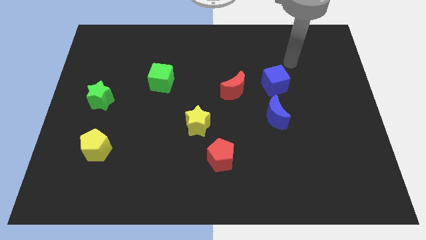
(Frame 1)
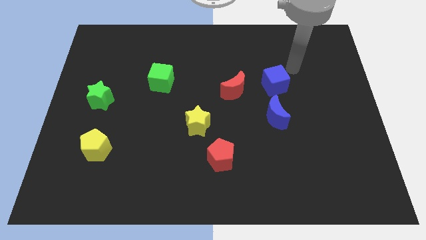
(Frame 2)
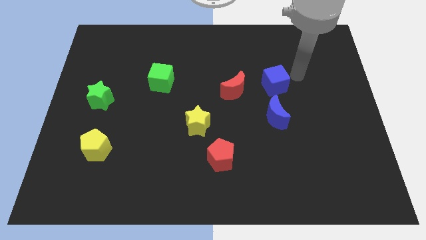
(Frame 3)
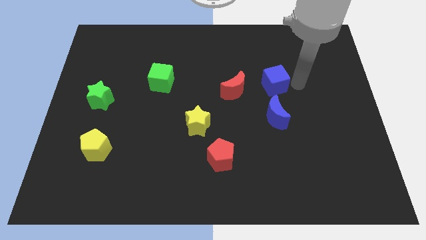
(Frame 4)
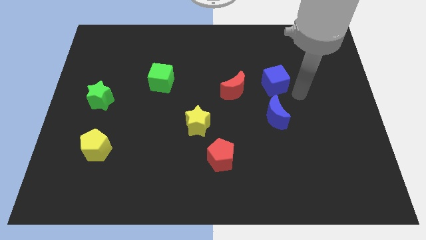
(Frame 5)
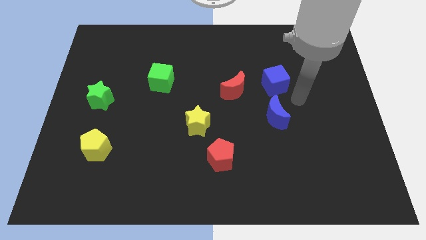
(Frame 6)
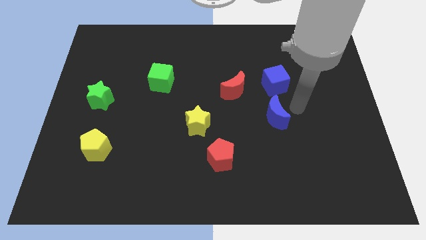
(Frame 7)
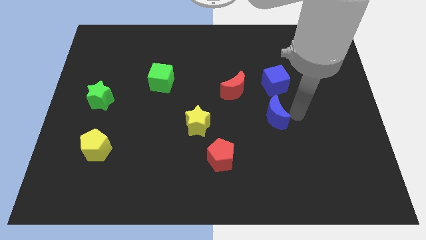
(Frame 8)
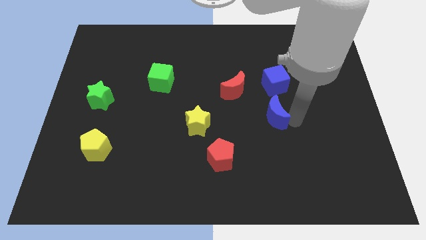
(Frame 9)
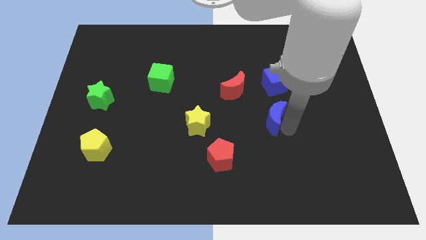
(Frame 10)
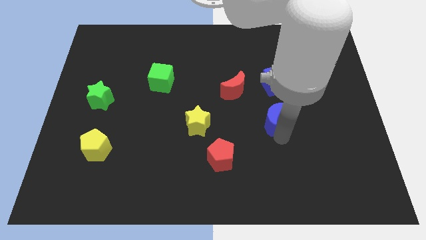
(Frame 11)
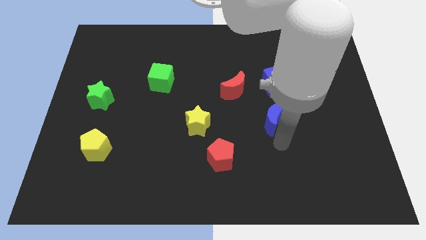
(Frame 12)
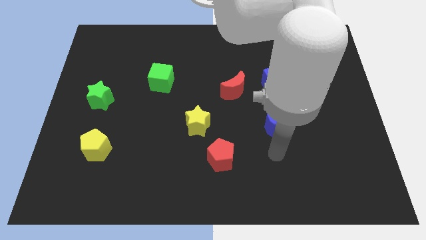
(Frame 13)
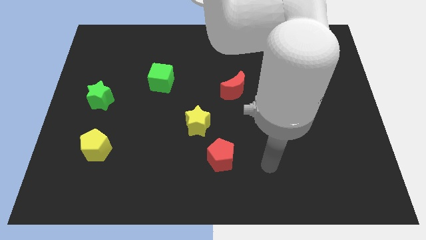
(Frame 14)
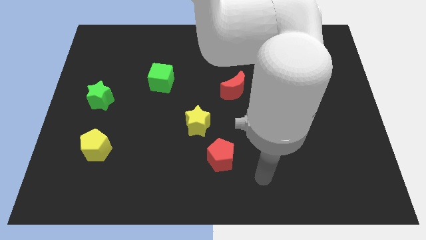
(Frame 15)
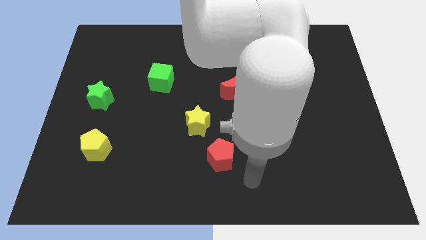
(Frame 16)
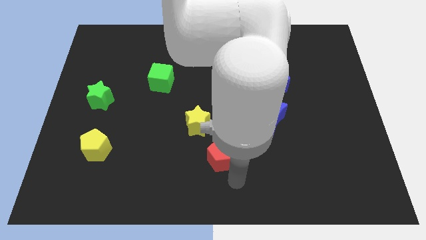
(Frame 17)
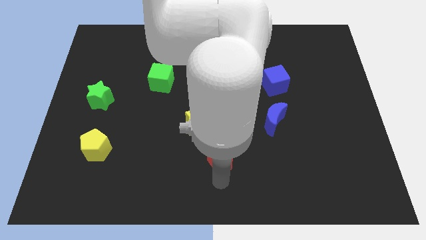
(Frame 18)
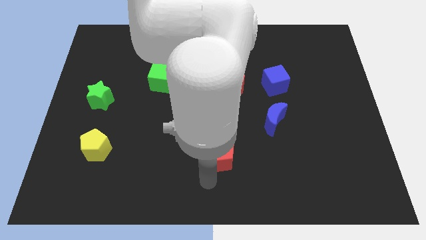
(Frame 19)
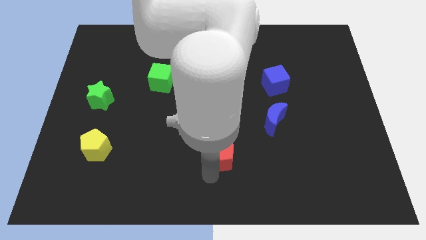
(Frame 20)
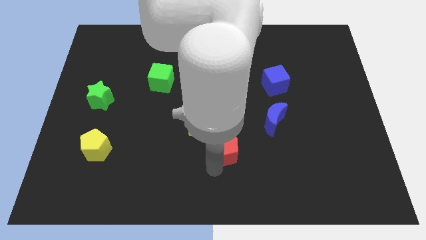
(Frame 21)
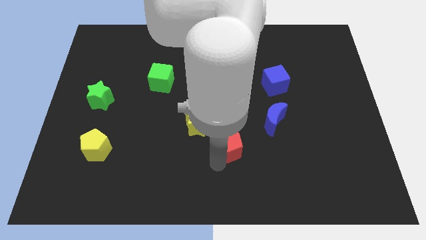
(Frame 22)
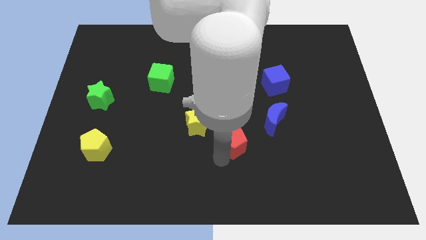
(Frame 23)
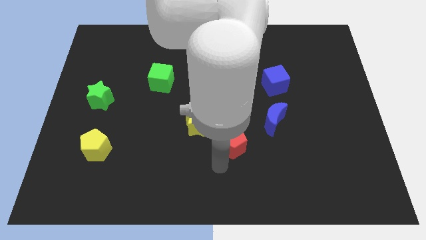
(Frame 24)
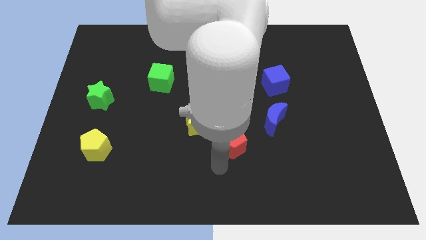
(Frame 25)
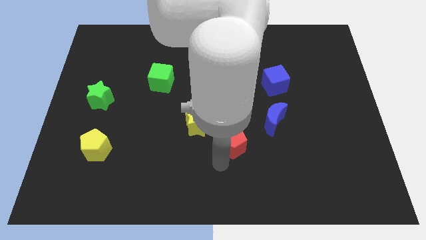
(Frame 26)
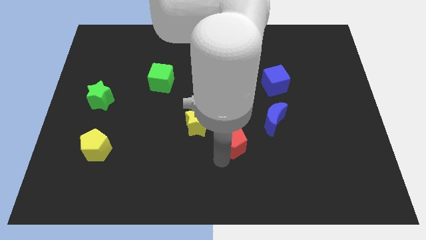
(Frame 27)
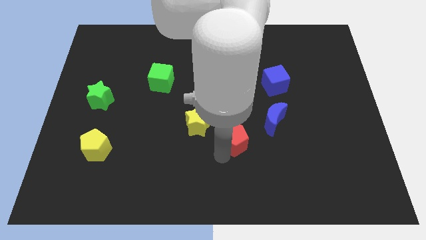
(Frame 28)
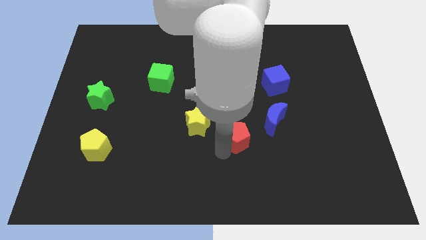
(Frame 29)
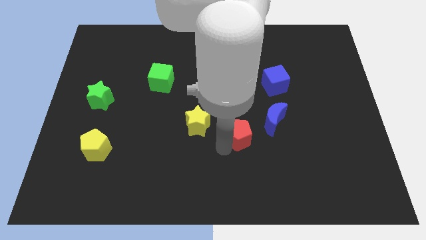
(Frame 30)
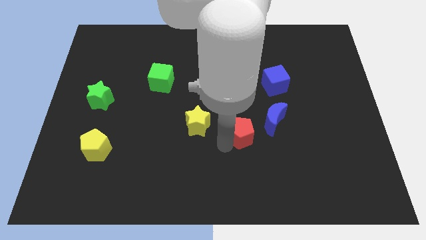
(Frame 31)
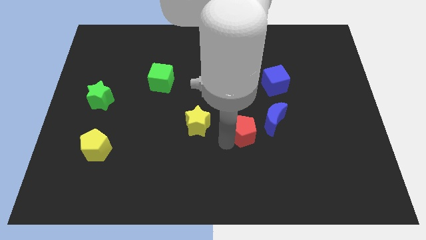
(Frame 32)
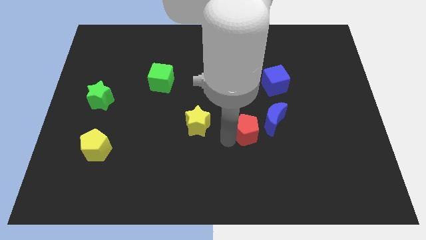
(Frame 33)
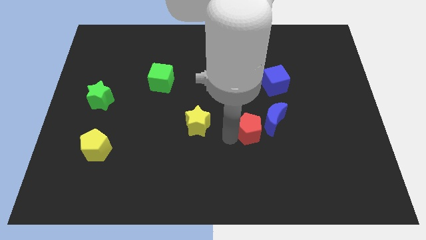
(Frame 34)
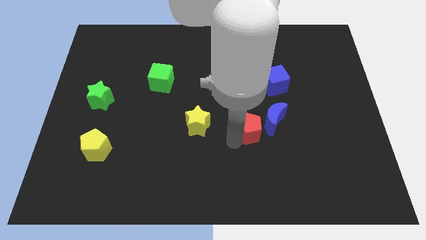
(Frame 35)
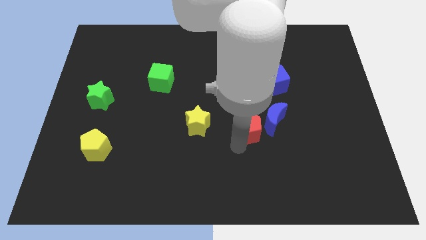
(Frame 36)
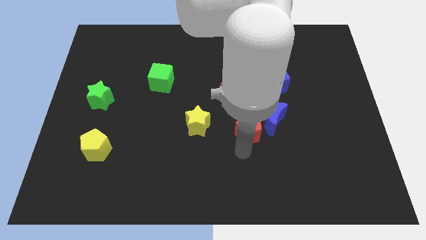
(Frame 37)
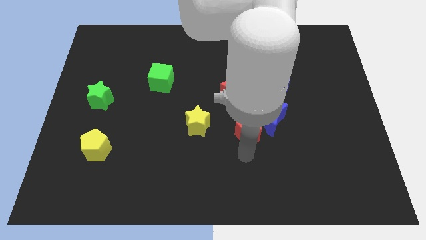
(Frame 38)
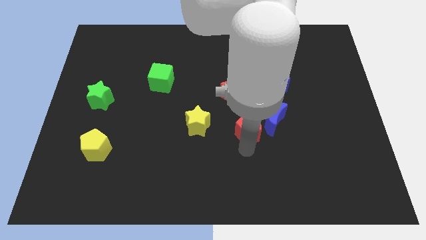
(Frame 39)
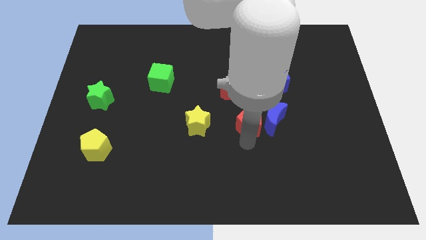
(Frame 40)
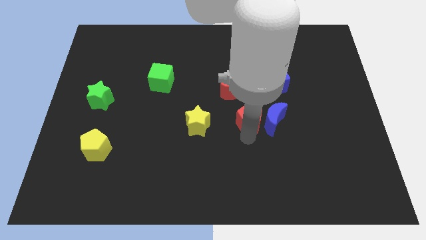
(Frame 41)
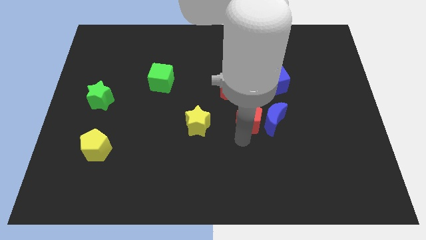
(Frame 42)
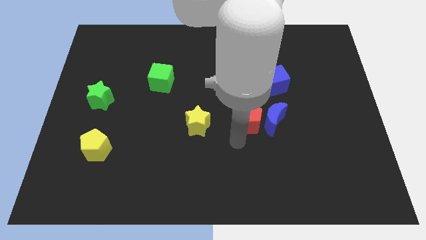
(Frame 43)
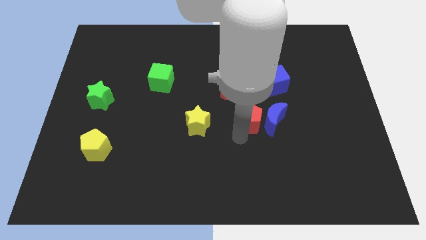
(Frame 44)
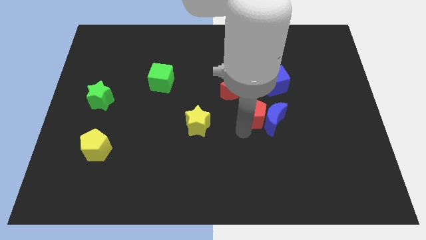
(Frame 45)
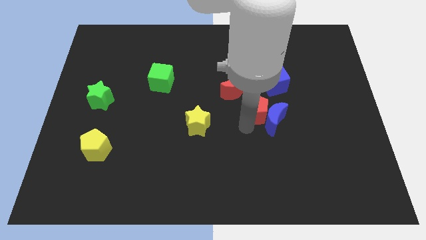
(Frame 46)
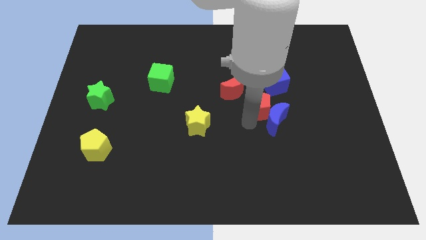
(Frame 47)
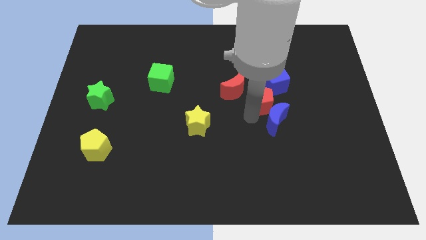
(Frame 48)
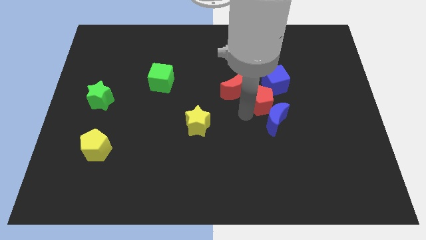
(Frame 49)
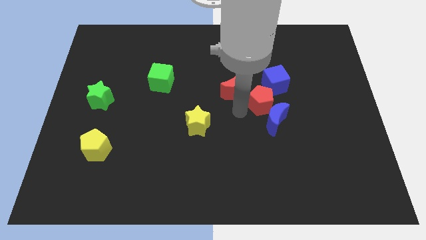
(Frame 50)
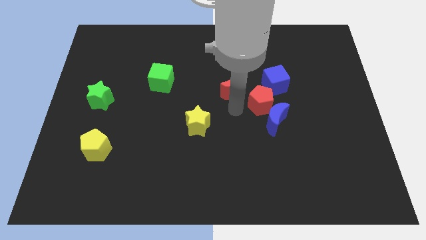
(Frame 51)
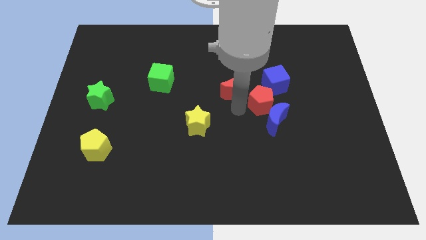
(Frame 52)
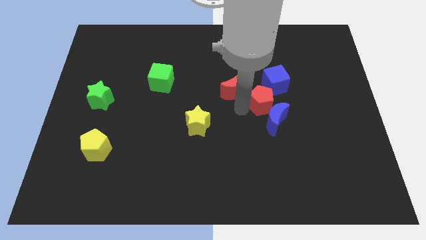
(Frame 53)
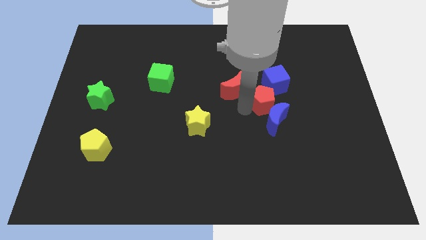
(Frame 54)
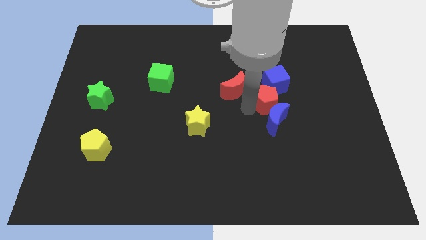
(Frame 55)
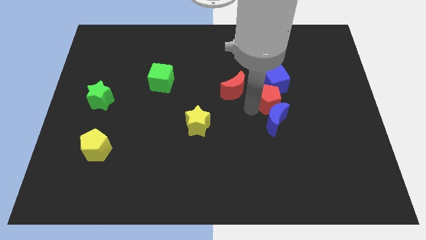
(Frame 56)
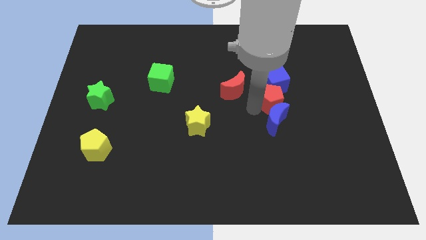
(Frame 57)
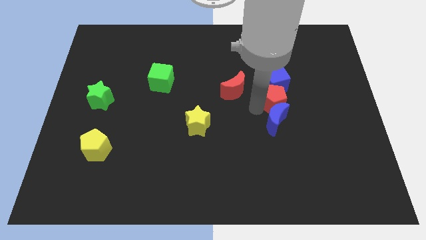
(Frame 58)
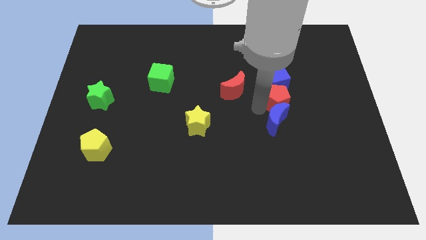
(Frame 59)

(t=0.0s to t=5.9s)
slide the red pentagon upwards and then to the right

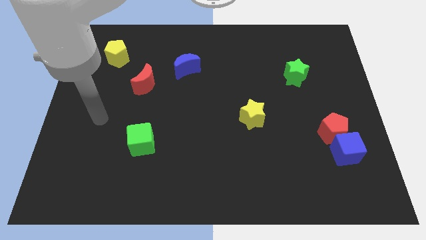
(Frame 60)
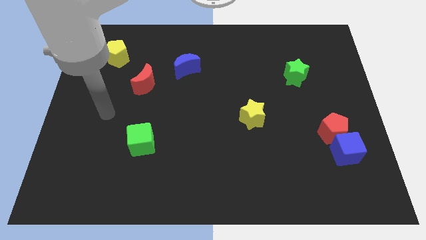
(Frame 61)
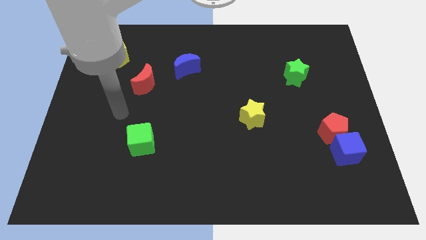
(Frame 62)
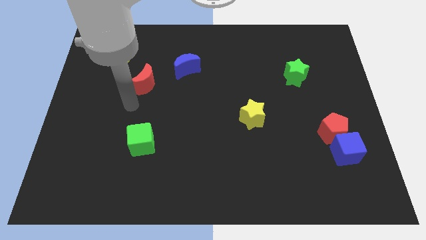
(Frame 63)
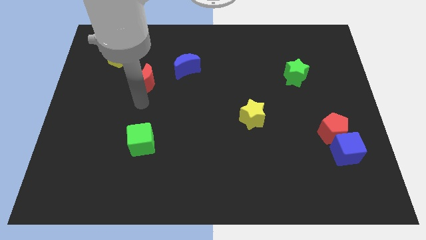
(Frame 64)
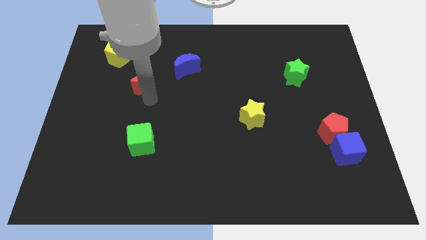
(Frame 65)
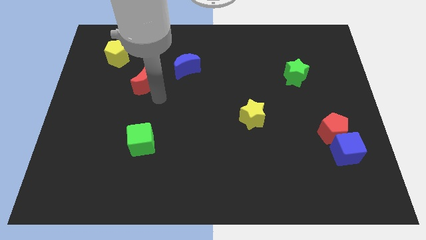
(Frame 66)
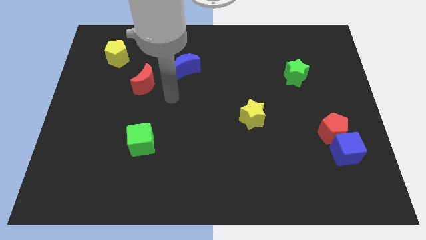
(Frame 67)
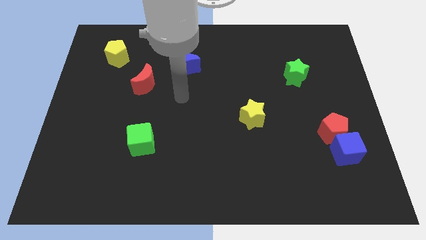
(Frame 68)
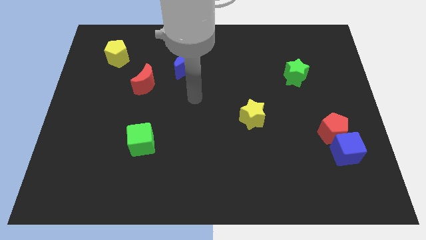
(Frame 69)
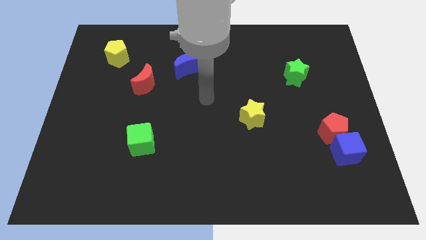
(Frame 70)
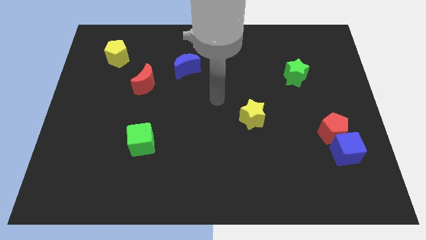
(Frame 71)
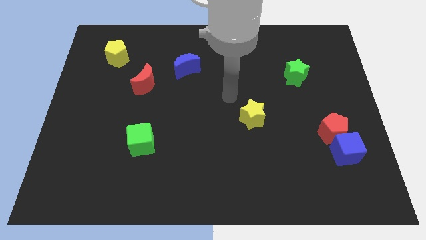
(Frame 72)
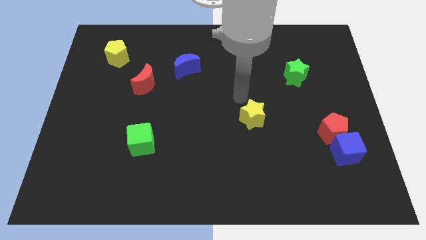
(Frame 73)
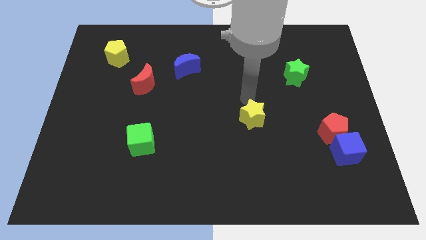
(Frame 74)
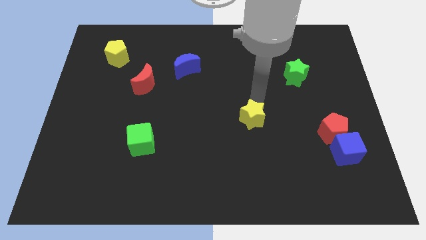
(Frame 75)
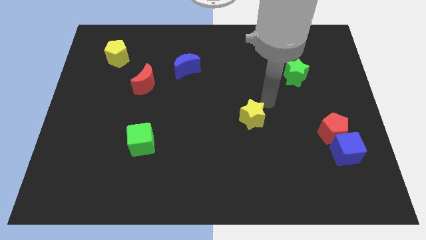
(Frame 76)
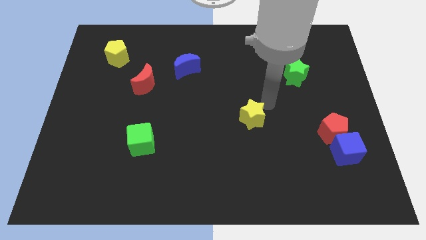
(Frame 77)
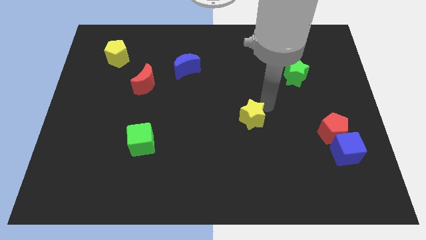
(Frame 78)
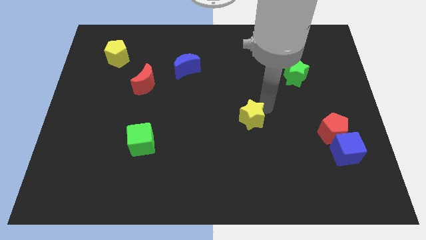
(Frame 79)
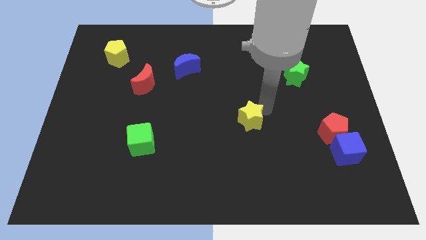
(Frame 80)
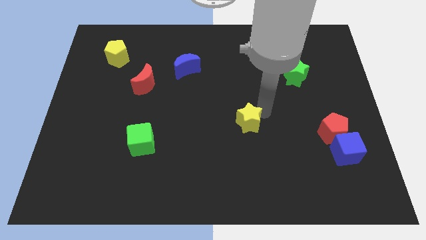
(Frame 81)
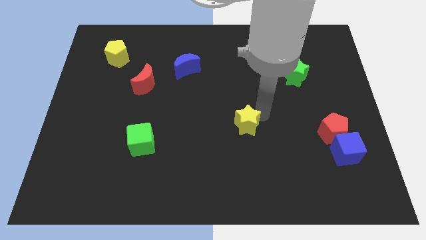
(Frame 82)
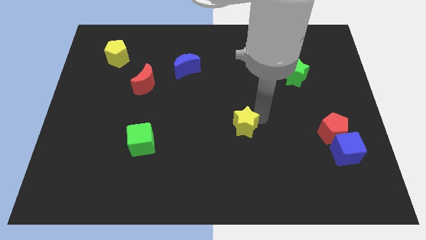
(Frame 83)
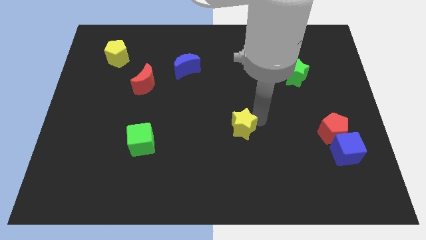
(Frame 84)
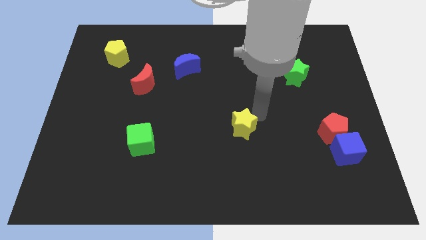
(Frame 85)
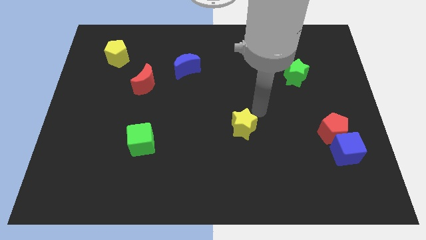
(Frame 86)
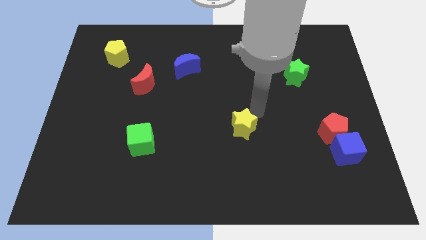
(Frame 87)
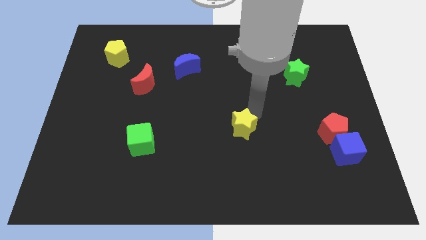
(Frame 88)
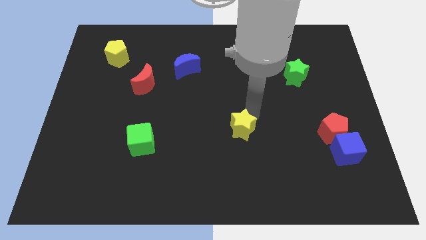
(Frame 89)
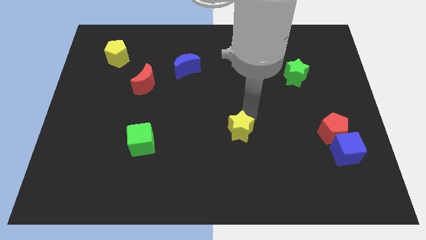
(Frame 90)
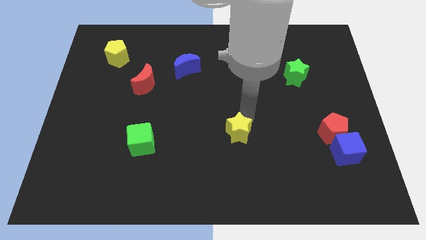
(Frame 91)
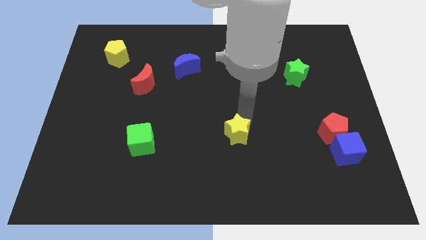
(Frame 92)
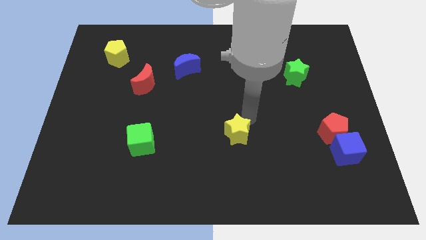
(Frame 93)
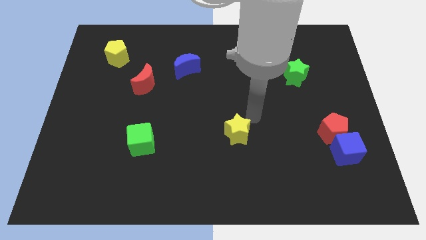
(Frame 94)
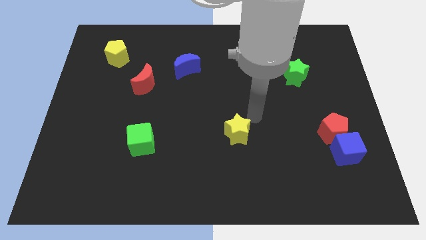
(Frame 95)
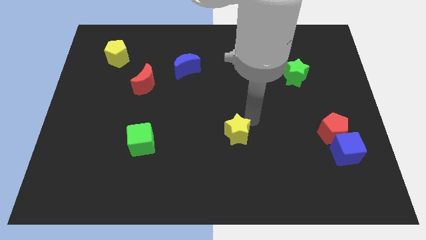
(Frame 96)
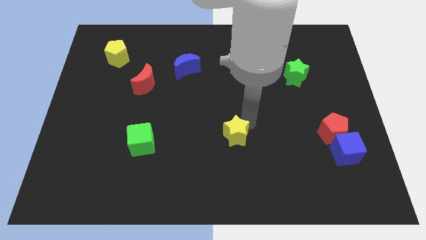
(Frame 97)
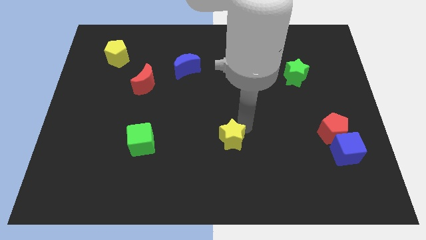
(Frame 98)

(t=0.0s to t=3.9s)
slide the yellow star a bit downwards and then left
